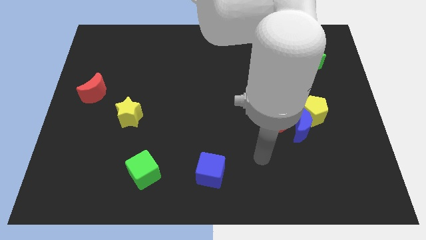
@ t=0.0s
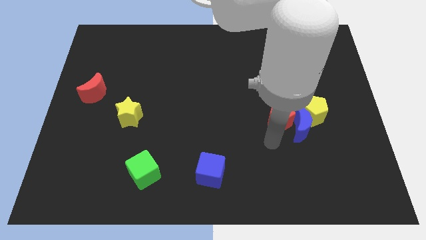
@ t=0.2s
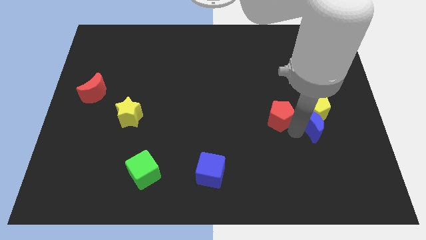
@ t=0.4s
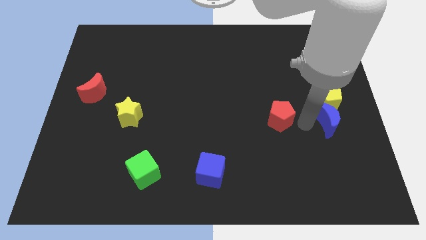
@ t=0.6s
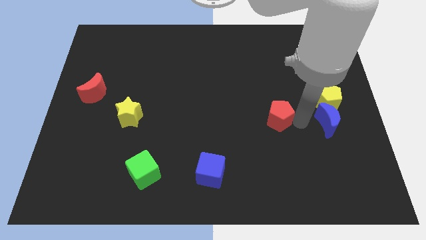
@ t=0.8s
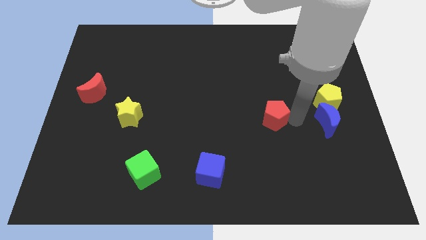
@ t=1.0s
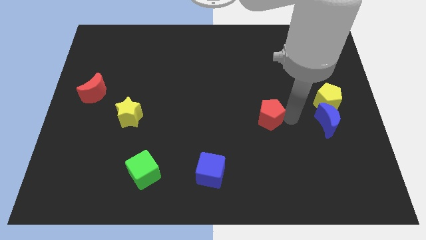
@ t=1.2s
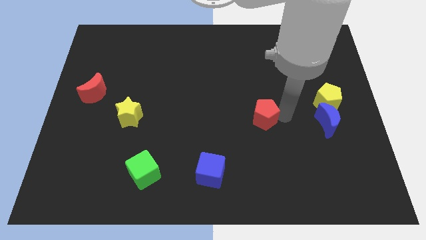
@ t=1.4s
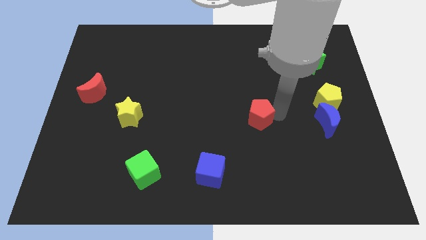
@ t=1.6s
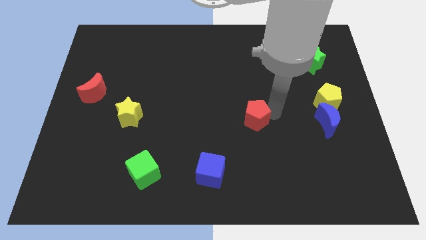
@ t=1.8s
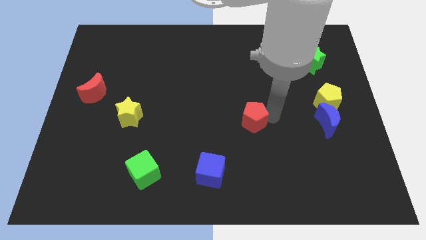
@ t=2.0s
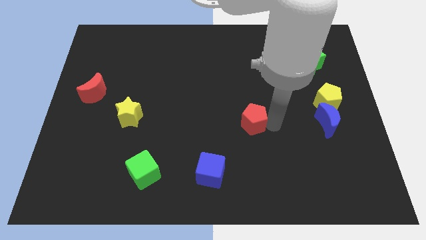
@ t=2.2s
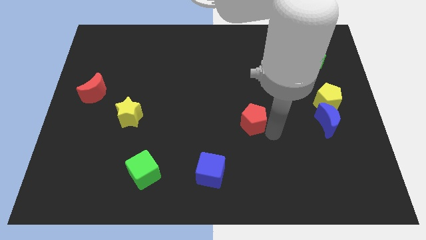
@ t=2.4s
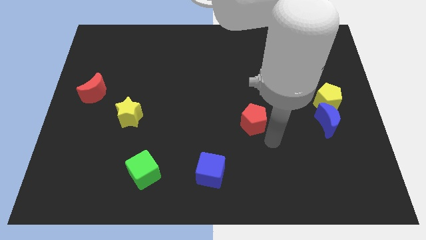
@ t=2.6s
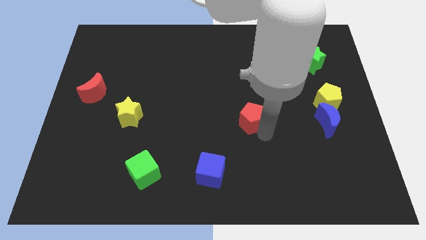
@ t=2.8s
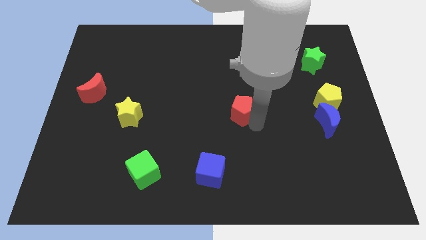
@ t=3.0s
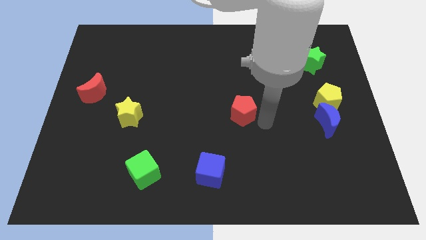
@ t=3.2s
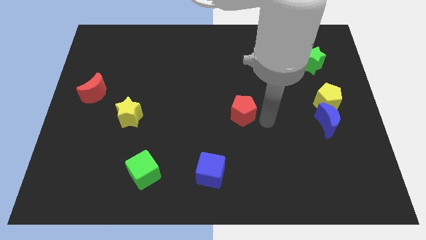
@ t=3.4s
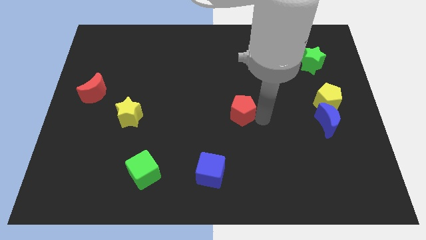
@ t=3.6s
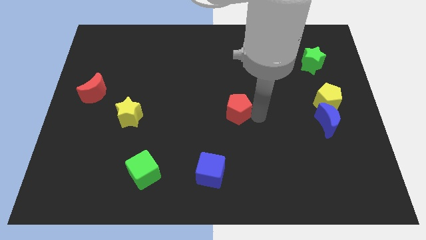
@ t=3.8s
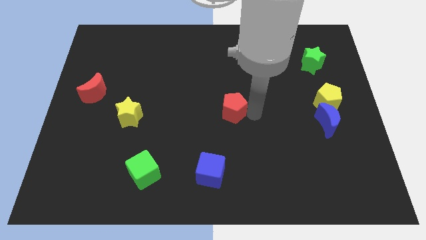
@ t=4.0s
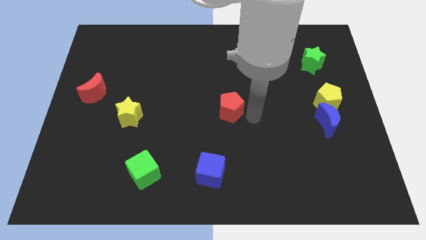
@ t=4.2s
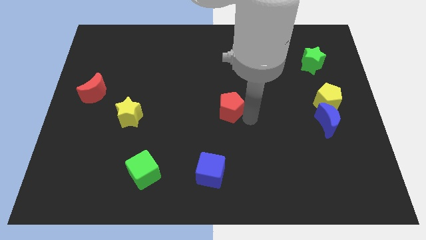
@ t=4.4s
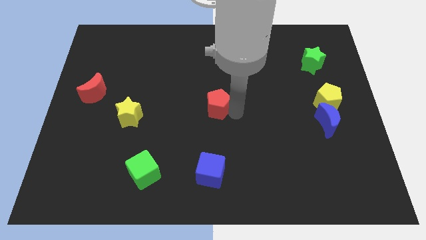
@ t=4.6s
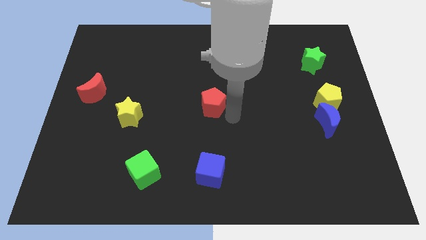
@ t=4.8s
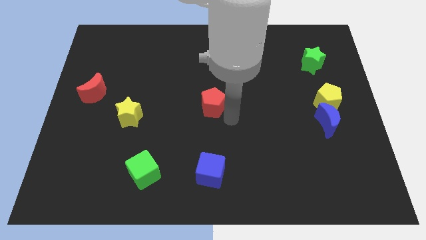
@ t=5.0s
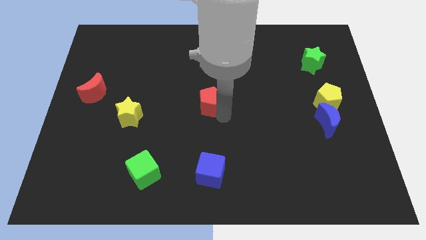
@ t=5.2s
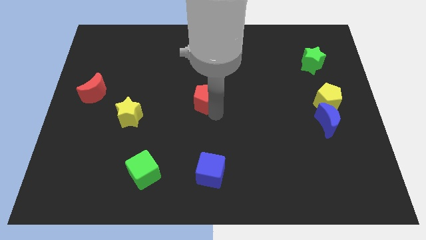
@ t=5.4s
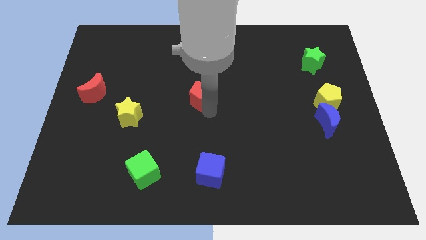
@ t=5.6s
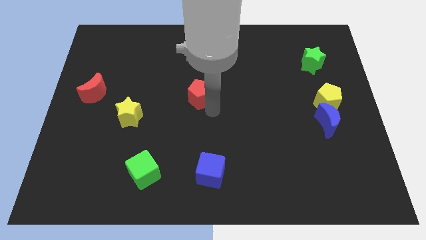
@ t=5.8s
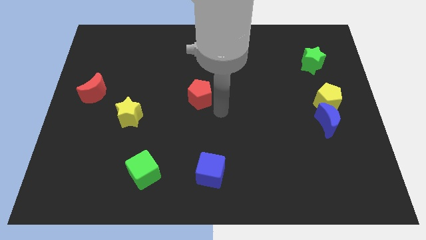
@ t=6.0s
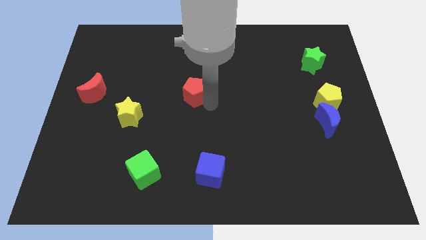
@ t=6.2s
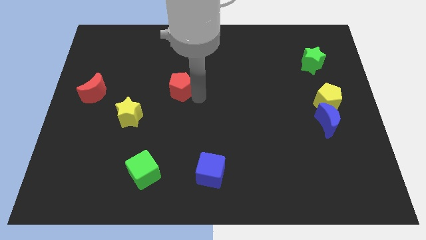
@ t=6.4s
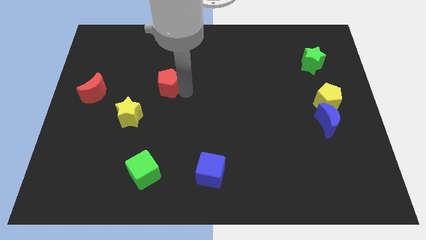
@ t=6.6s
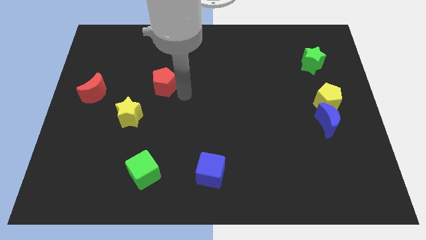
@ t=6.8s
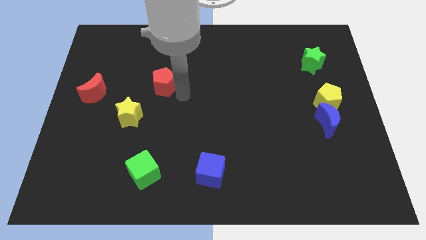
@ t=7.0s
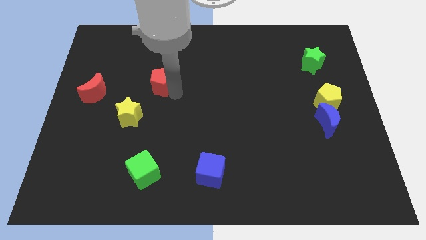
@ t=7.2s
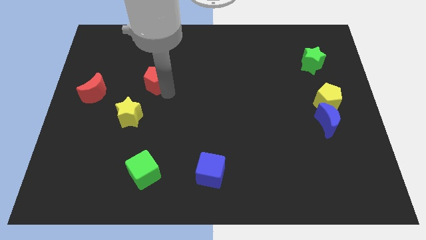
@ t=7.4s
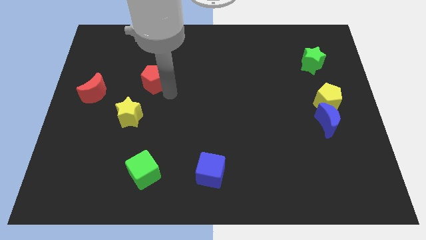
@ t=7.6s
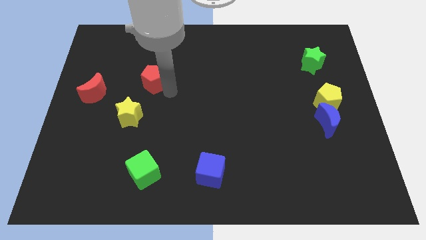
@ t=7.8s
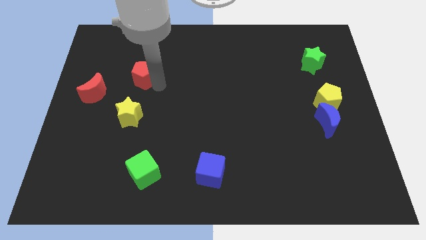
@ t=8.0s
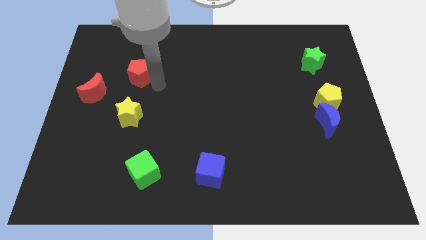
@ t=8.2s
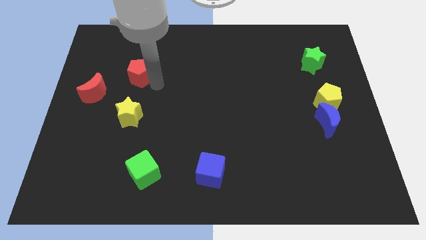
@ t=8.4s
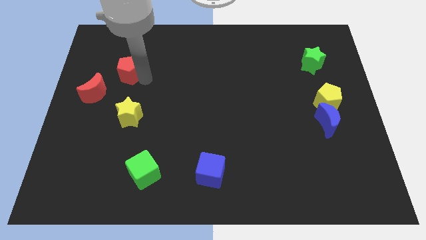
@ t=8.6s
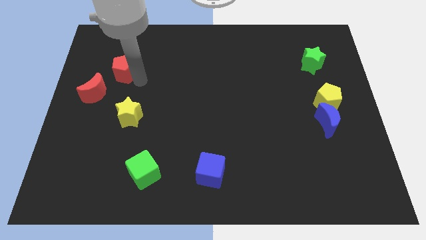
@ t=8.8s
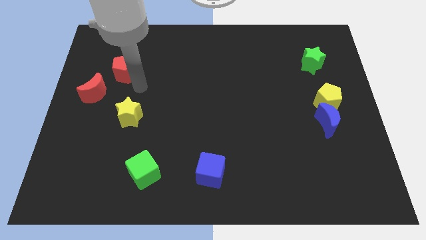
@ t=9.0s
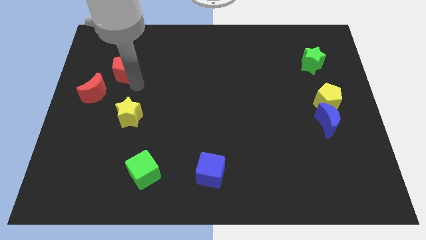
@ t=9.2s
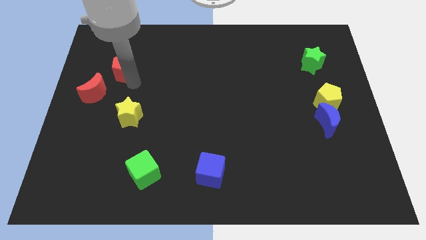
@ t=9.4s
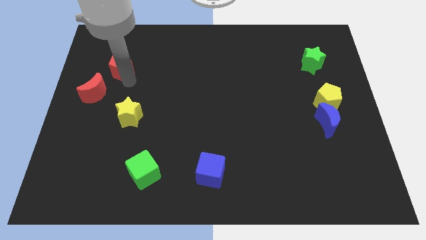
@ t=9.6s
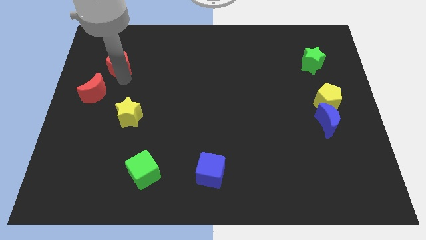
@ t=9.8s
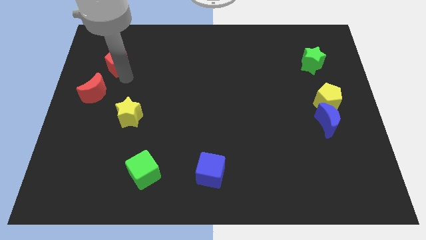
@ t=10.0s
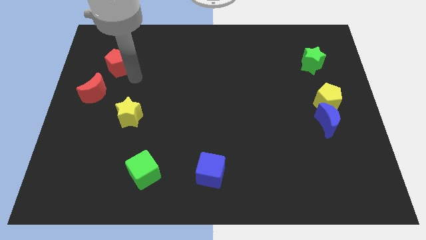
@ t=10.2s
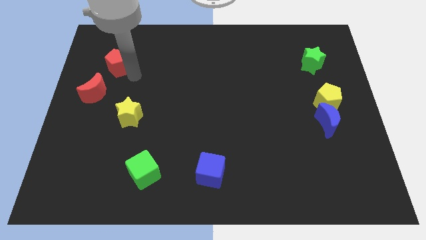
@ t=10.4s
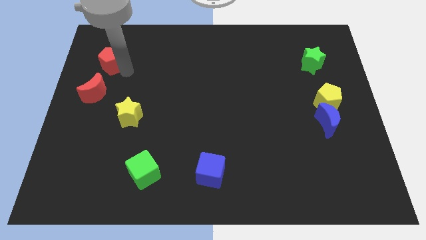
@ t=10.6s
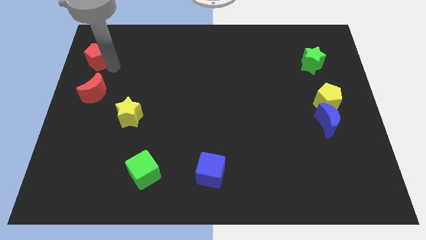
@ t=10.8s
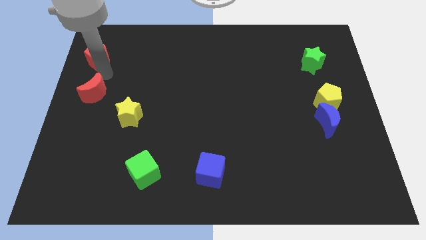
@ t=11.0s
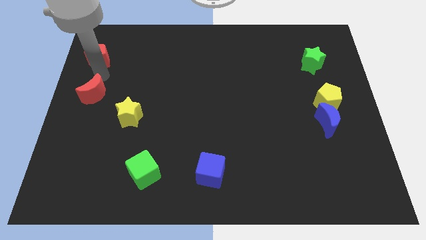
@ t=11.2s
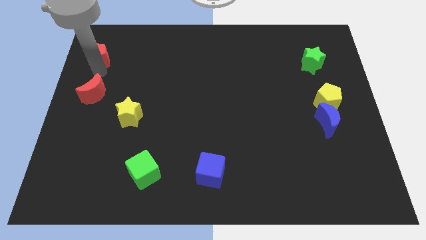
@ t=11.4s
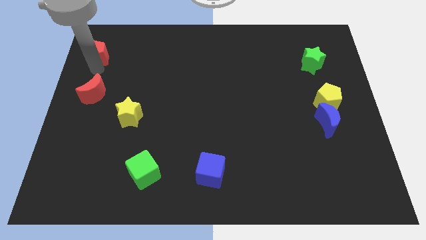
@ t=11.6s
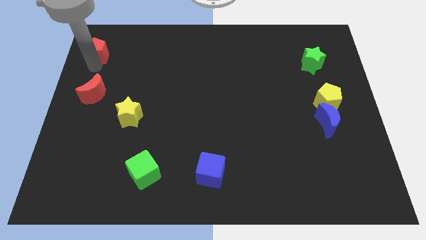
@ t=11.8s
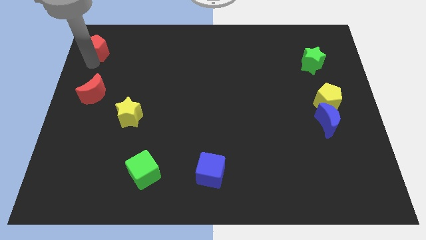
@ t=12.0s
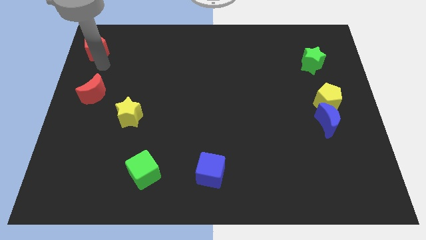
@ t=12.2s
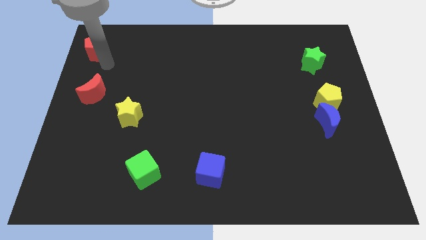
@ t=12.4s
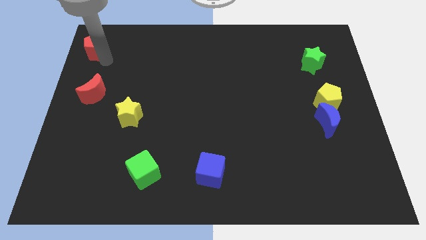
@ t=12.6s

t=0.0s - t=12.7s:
slide the red pentagon to the top left

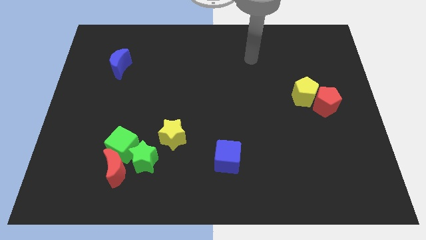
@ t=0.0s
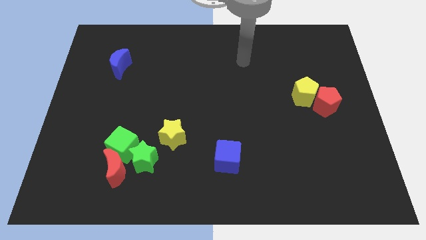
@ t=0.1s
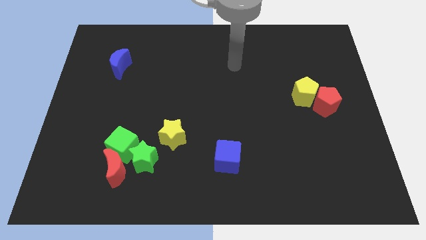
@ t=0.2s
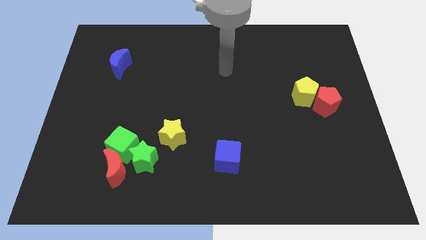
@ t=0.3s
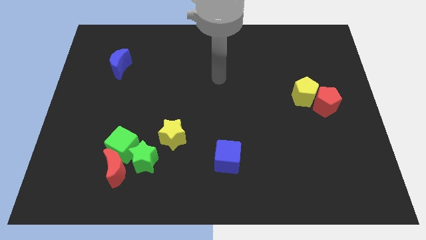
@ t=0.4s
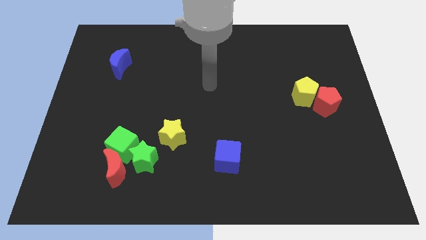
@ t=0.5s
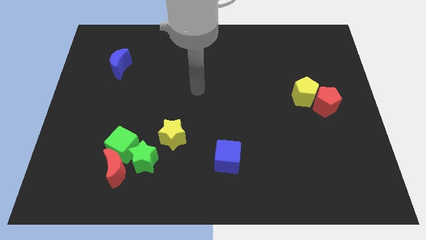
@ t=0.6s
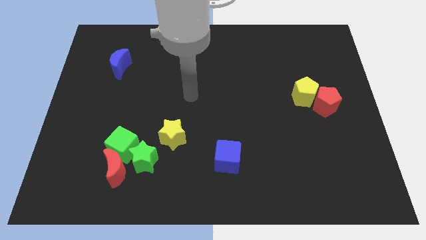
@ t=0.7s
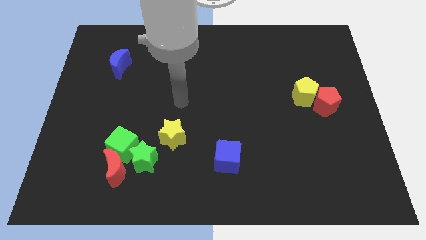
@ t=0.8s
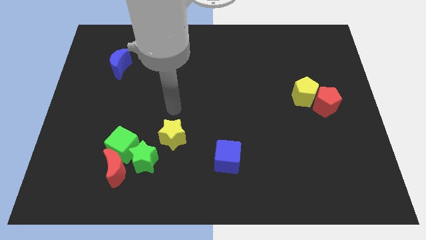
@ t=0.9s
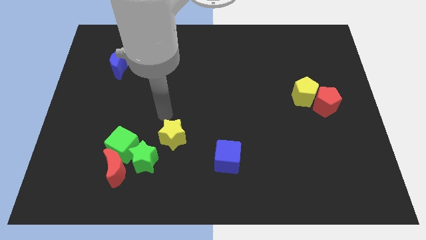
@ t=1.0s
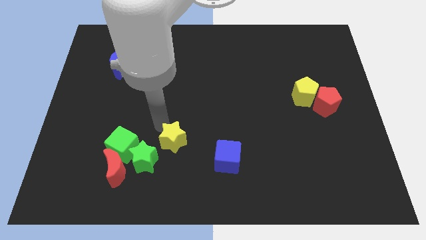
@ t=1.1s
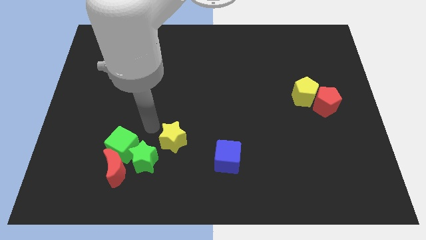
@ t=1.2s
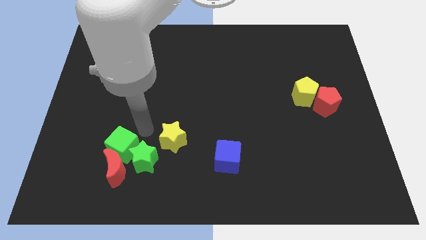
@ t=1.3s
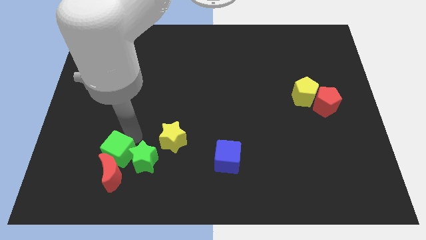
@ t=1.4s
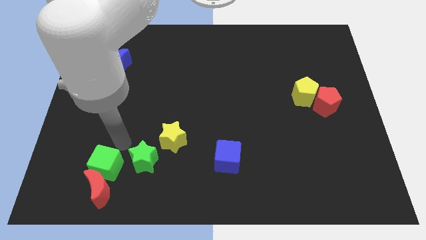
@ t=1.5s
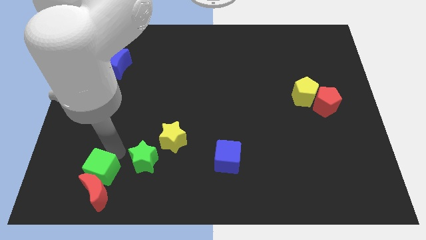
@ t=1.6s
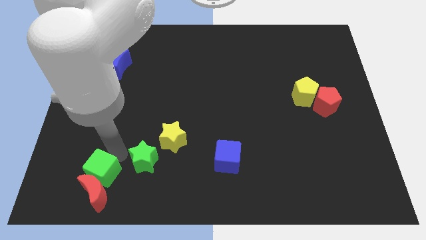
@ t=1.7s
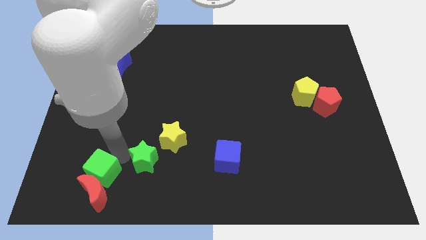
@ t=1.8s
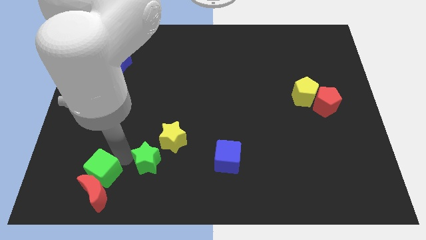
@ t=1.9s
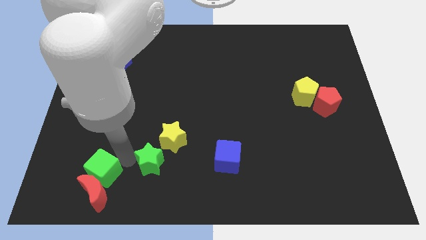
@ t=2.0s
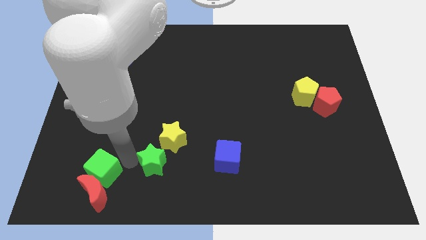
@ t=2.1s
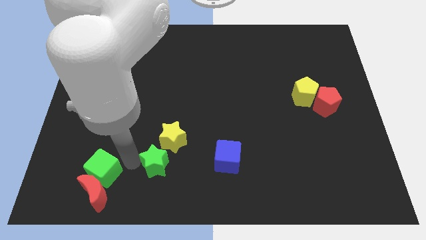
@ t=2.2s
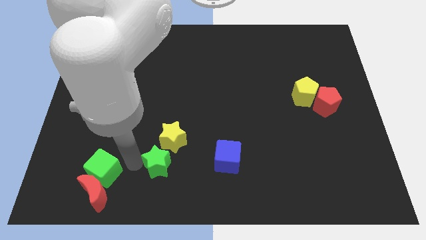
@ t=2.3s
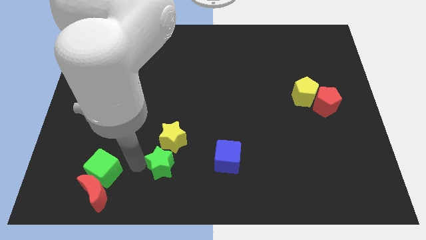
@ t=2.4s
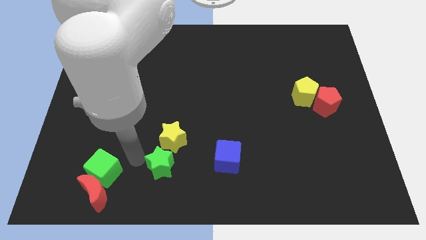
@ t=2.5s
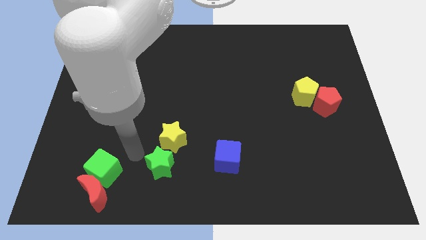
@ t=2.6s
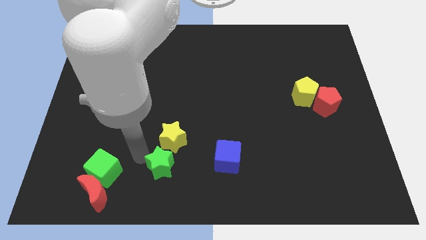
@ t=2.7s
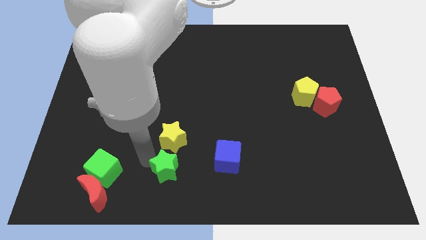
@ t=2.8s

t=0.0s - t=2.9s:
push the green star to the bottom
